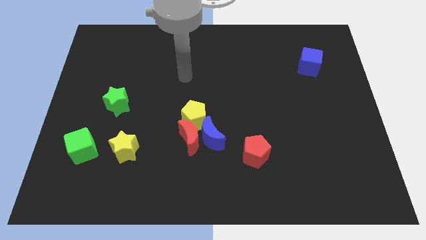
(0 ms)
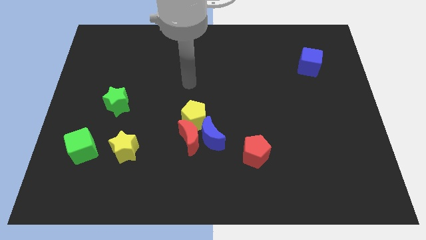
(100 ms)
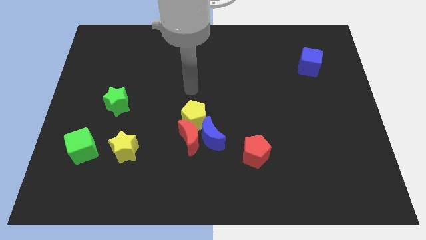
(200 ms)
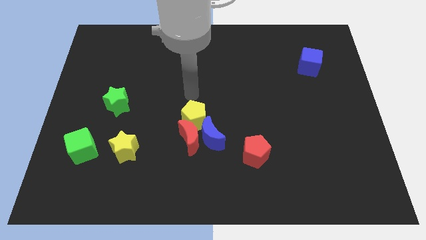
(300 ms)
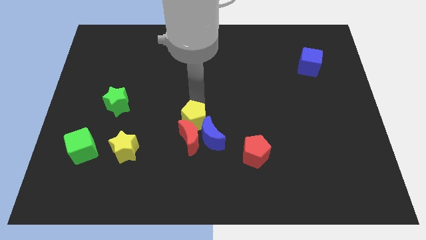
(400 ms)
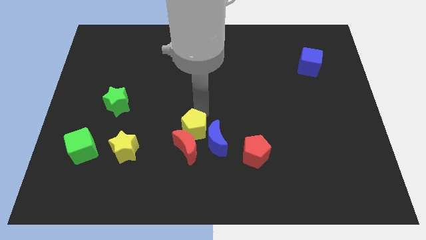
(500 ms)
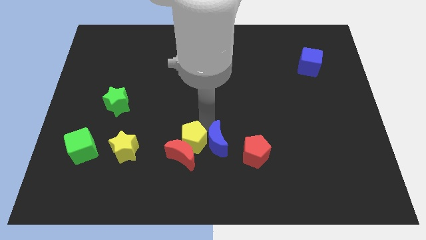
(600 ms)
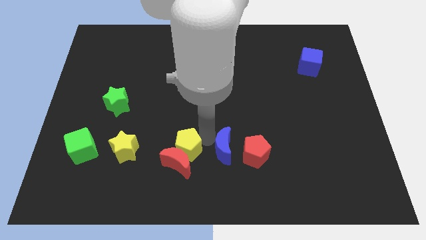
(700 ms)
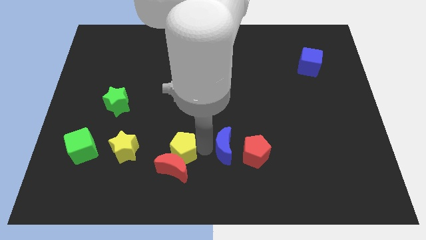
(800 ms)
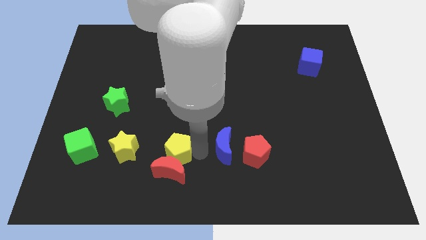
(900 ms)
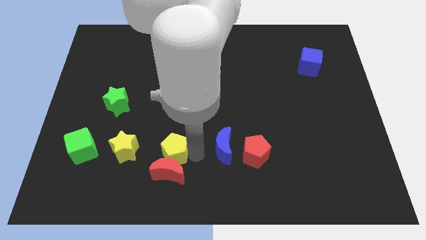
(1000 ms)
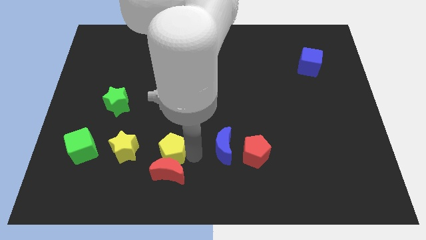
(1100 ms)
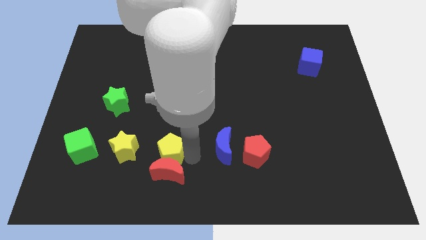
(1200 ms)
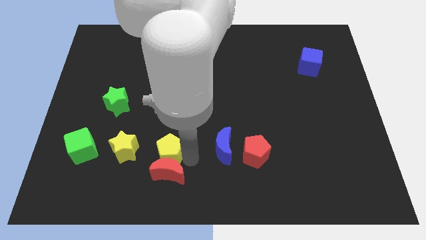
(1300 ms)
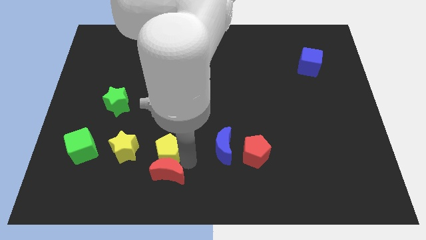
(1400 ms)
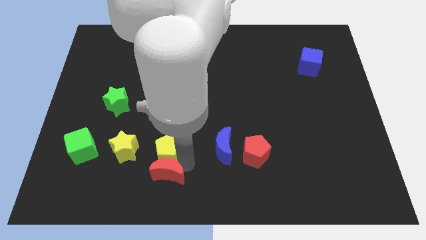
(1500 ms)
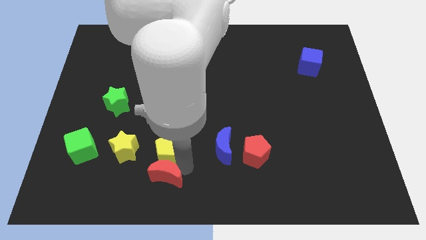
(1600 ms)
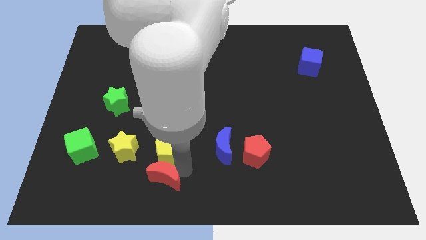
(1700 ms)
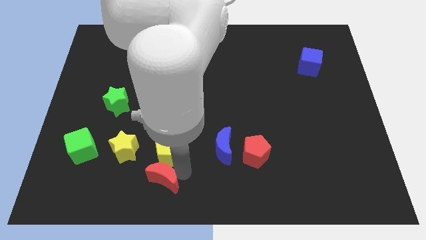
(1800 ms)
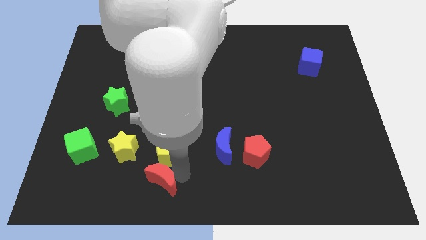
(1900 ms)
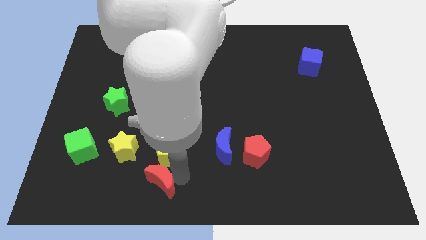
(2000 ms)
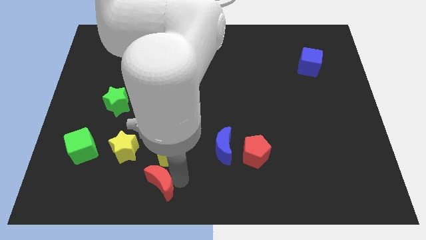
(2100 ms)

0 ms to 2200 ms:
pull the red moon apart from the blue moon and yellow pentagon

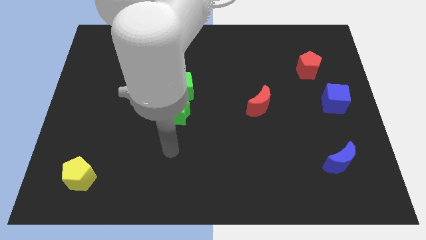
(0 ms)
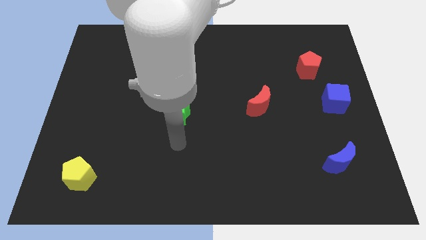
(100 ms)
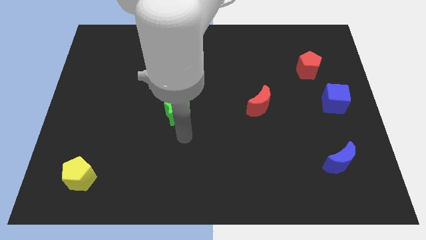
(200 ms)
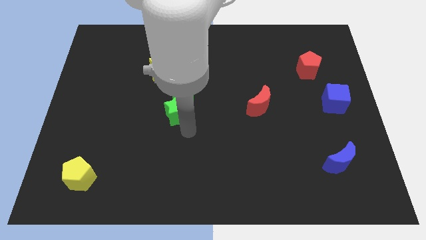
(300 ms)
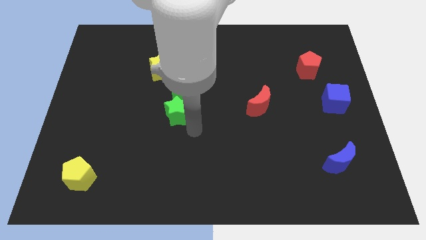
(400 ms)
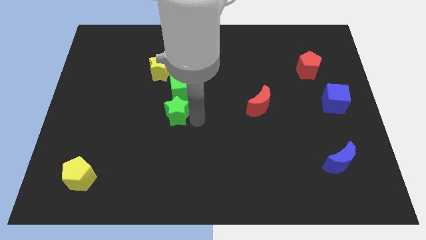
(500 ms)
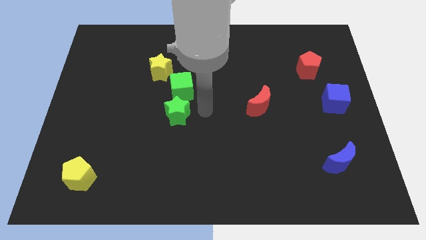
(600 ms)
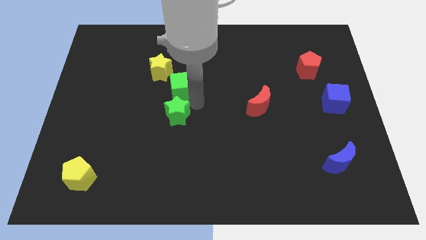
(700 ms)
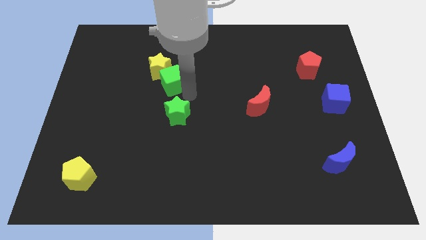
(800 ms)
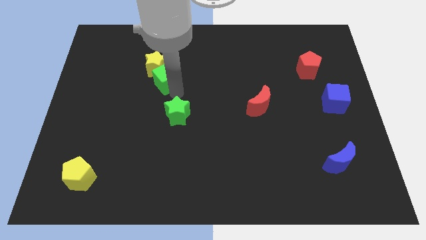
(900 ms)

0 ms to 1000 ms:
separate the green star from the green cube

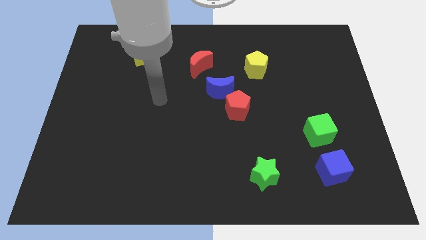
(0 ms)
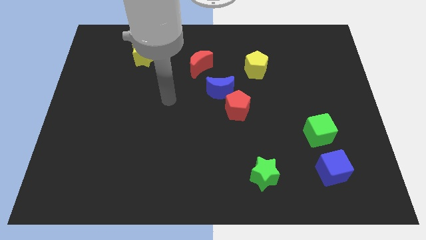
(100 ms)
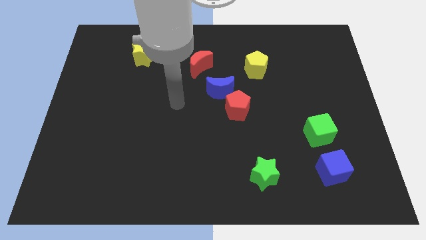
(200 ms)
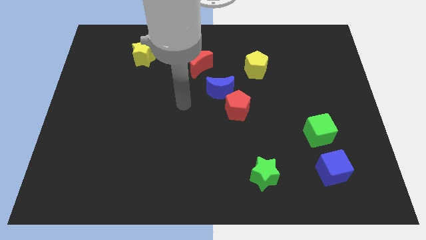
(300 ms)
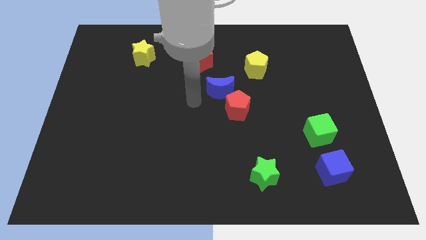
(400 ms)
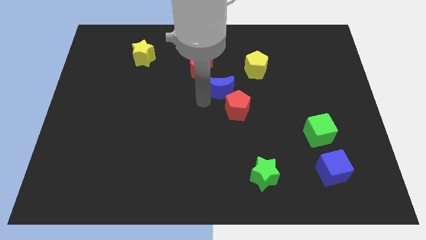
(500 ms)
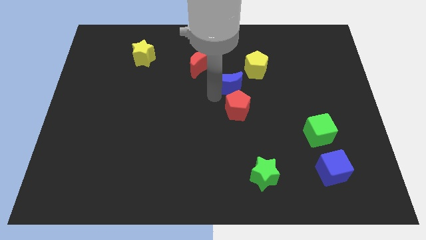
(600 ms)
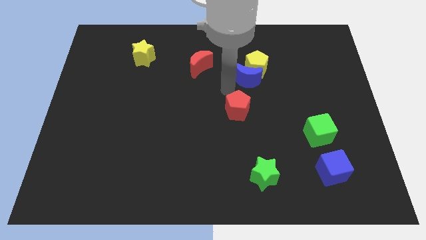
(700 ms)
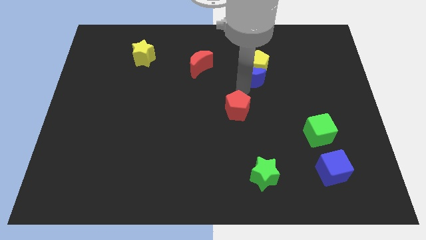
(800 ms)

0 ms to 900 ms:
move the red pentagon away from the blue moon

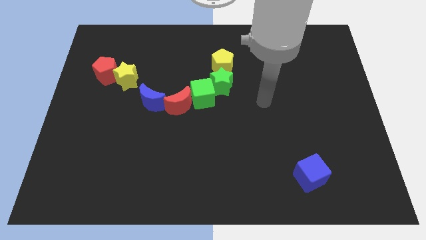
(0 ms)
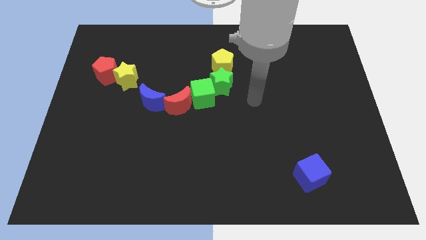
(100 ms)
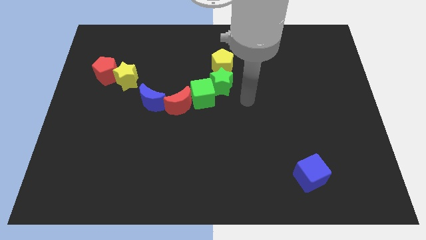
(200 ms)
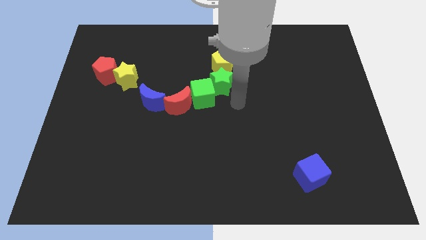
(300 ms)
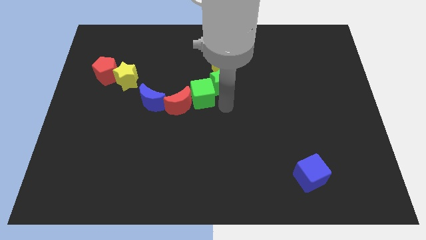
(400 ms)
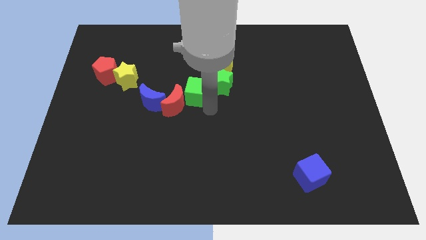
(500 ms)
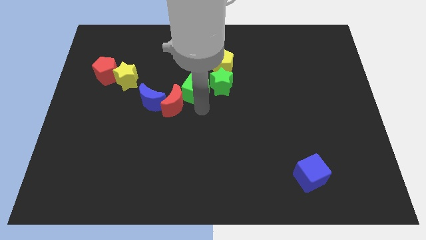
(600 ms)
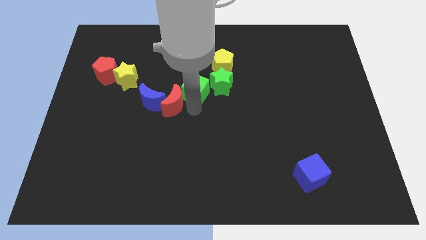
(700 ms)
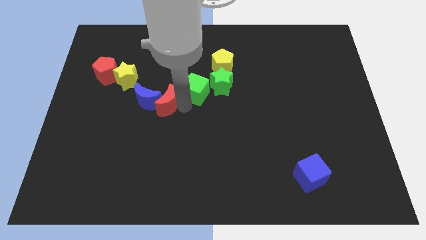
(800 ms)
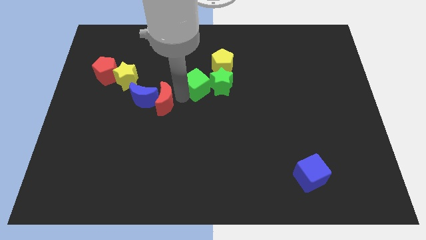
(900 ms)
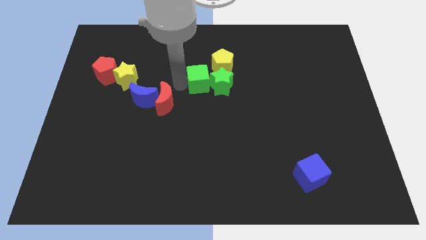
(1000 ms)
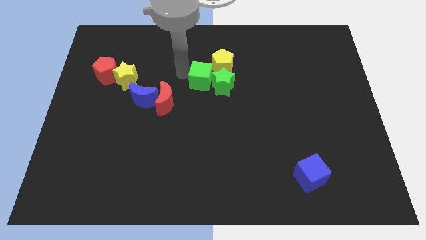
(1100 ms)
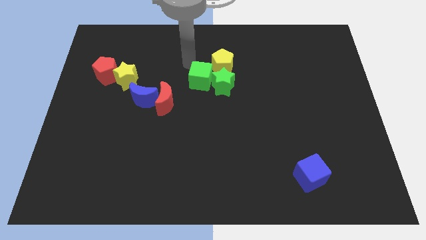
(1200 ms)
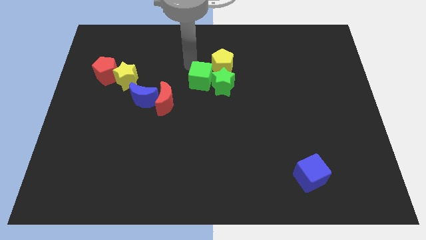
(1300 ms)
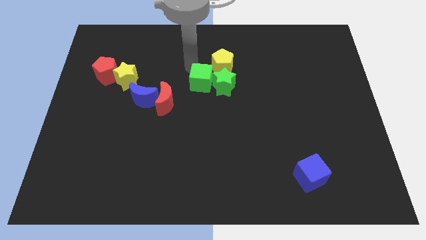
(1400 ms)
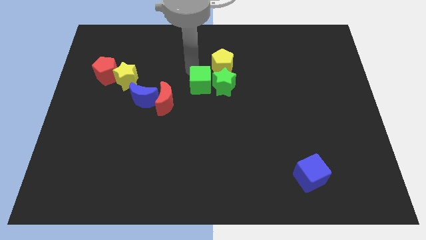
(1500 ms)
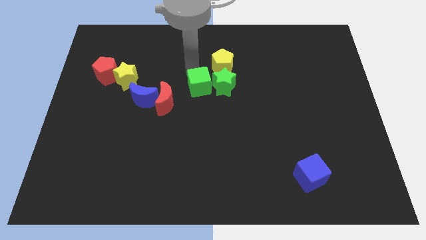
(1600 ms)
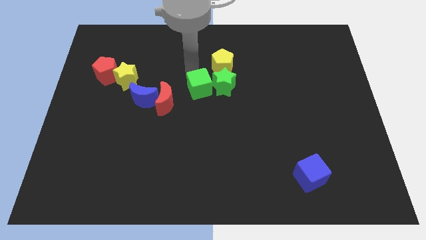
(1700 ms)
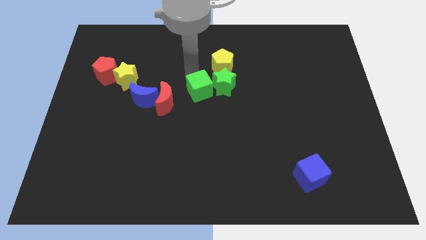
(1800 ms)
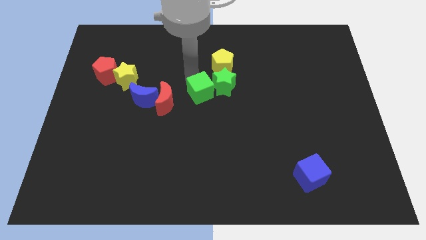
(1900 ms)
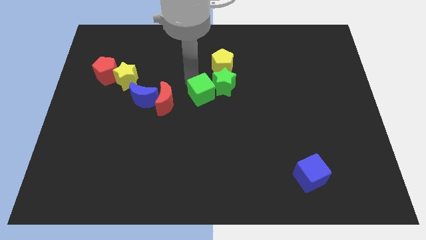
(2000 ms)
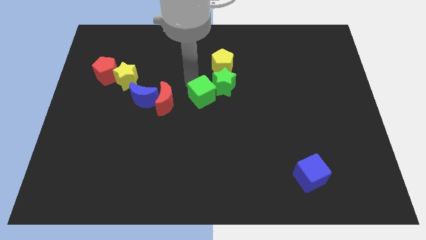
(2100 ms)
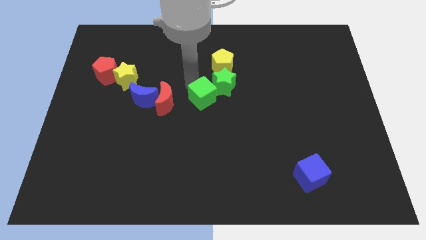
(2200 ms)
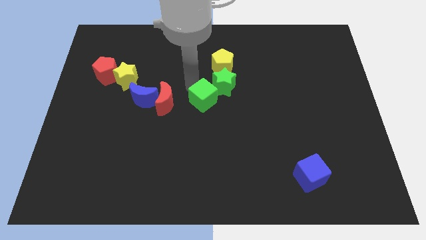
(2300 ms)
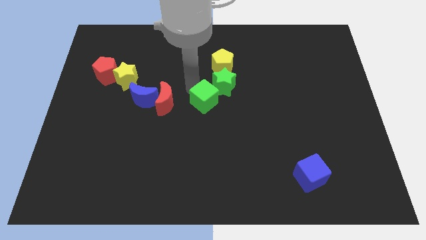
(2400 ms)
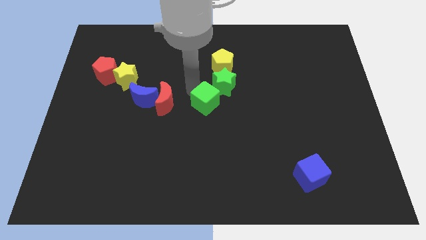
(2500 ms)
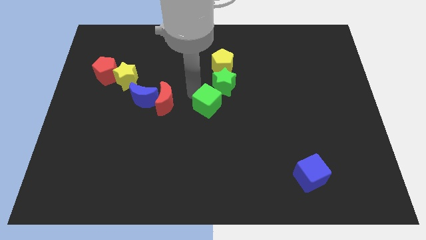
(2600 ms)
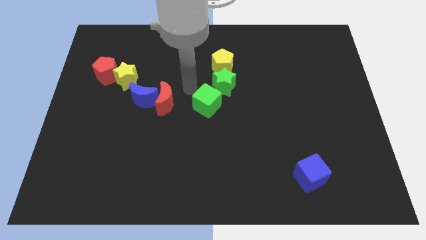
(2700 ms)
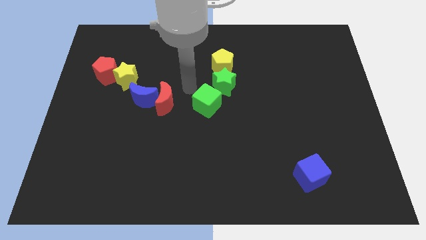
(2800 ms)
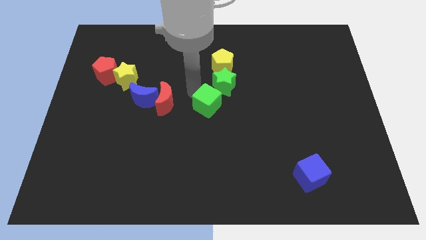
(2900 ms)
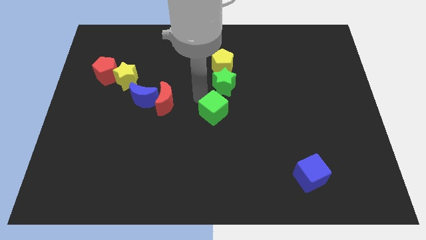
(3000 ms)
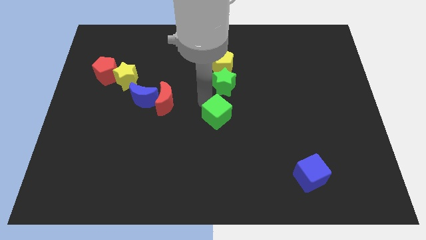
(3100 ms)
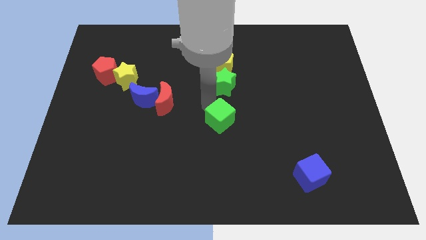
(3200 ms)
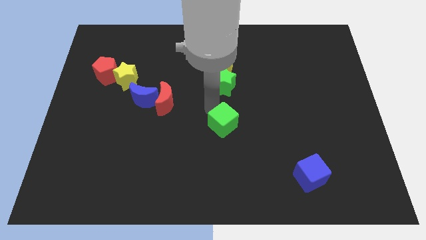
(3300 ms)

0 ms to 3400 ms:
move the green cube away from the green star and red moon

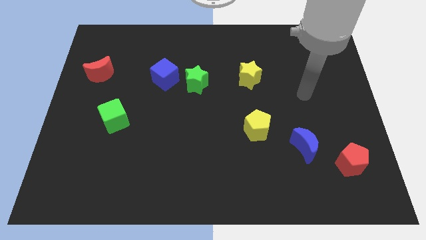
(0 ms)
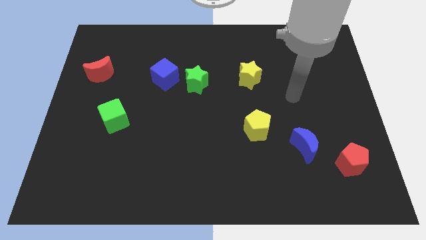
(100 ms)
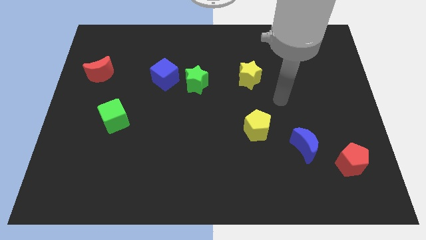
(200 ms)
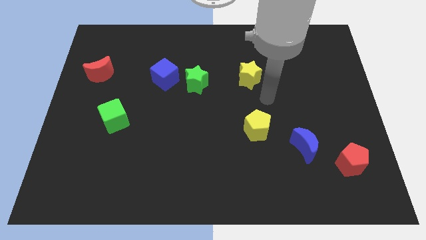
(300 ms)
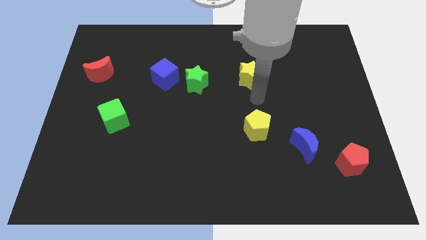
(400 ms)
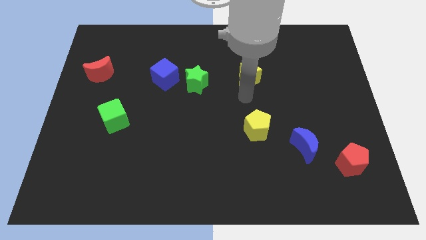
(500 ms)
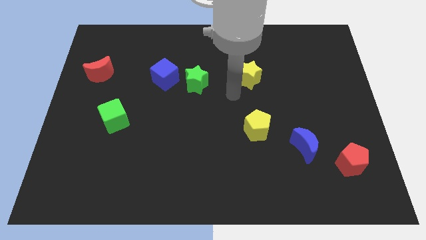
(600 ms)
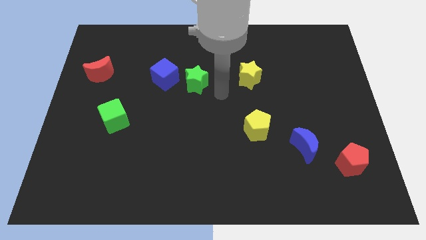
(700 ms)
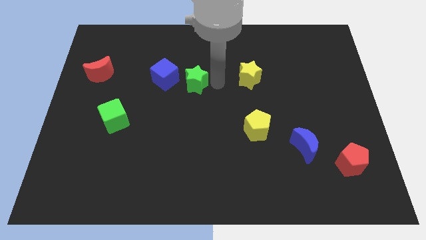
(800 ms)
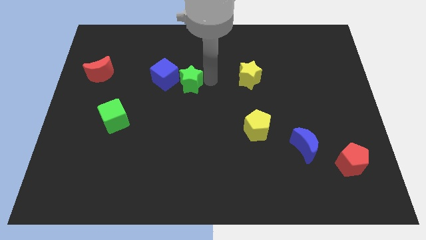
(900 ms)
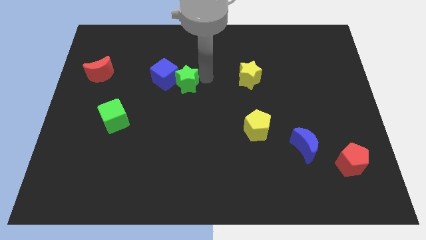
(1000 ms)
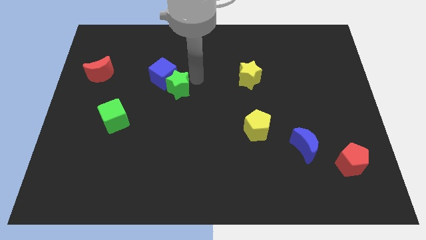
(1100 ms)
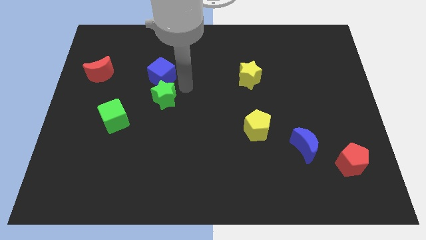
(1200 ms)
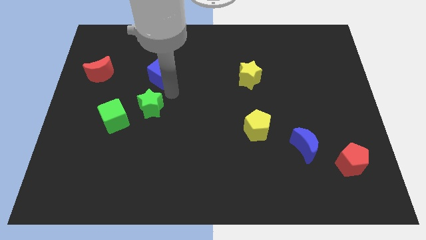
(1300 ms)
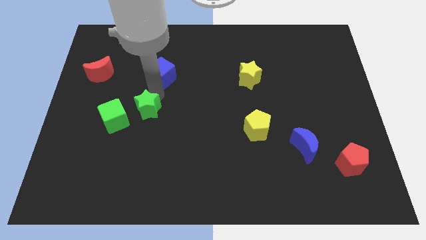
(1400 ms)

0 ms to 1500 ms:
move the blue cube away from the green star

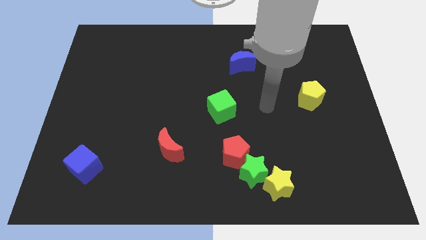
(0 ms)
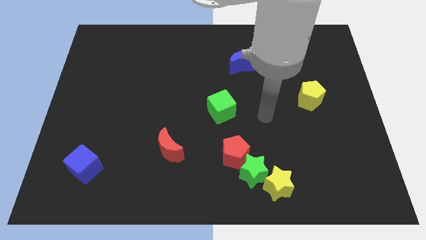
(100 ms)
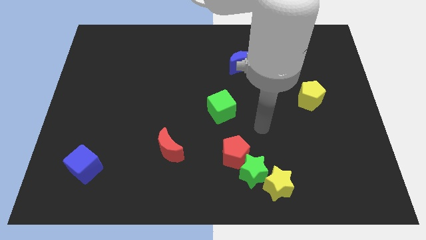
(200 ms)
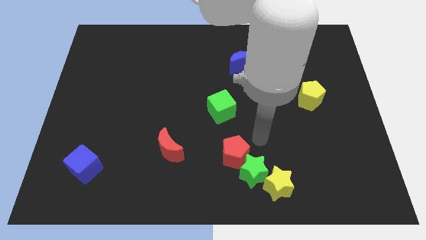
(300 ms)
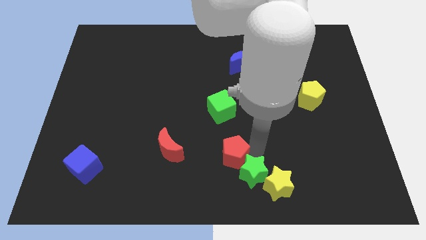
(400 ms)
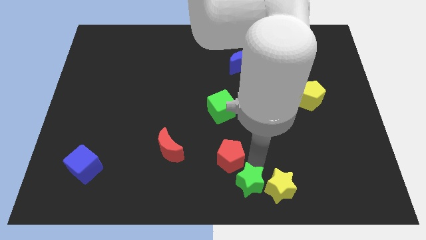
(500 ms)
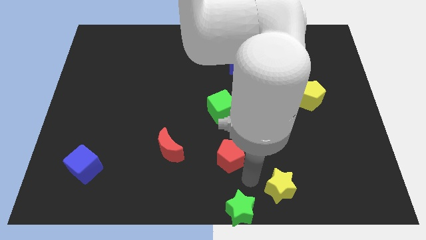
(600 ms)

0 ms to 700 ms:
move the red pentagon away from the green star
